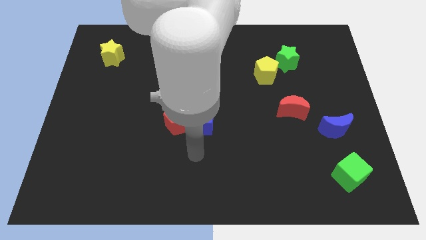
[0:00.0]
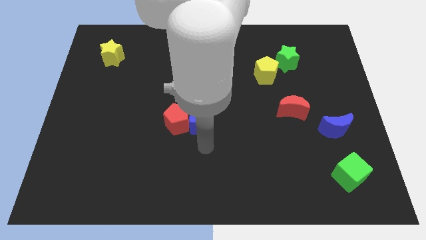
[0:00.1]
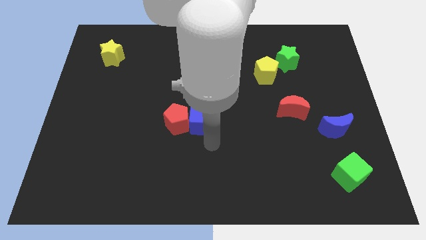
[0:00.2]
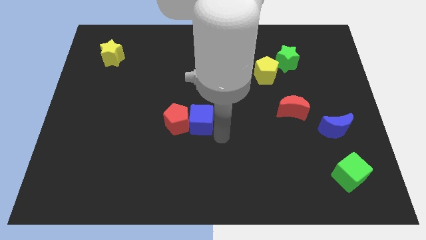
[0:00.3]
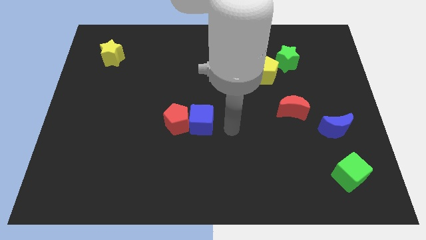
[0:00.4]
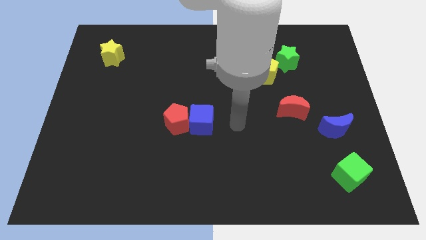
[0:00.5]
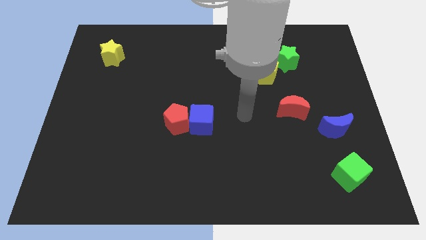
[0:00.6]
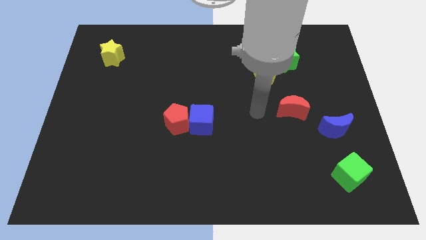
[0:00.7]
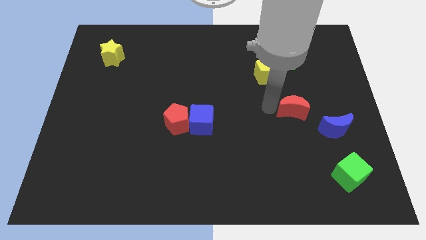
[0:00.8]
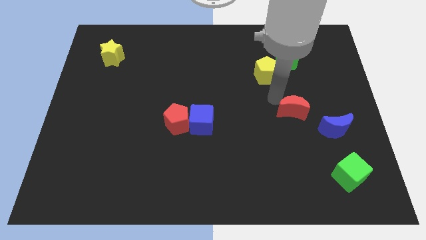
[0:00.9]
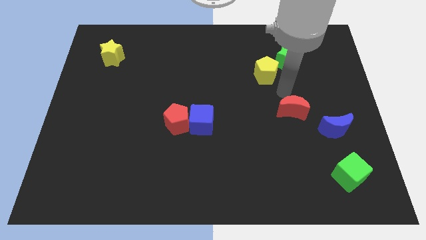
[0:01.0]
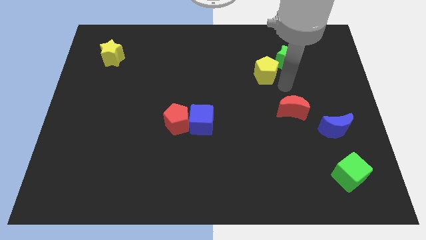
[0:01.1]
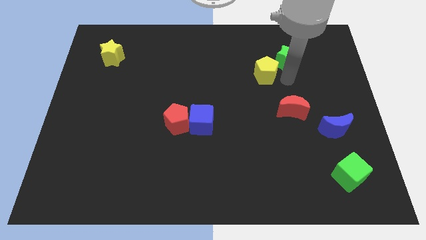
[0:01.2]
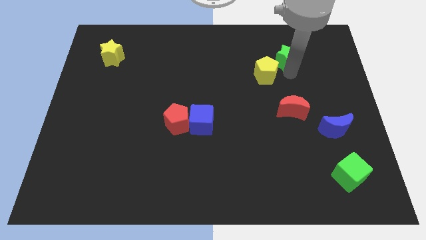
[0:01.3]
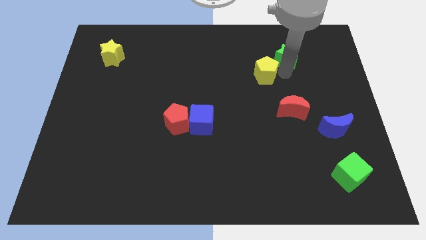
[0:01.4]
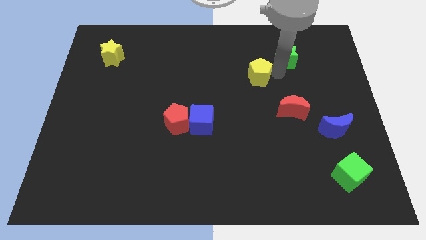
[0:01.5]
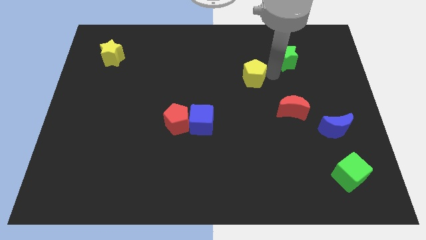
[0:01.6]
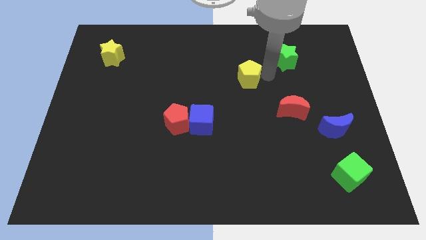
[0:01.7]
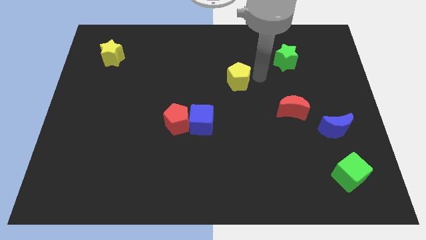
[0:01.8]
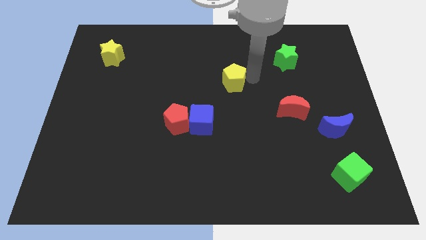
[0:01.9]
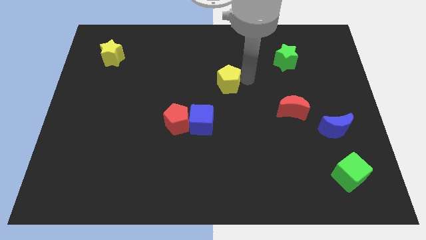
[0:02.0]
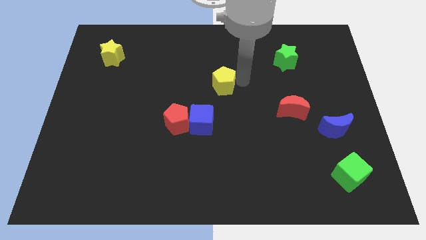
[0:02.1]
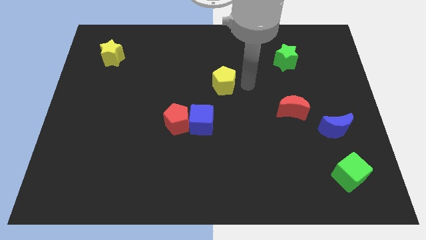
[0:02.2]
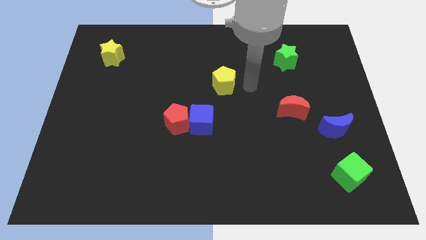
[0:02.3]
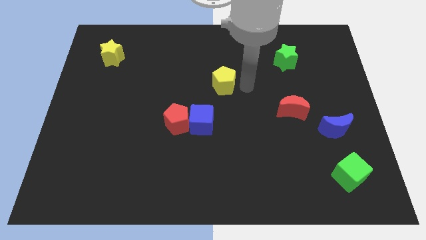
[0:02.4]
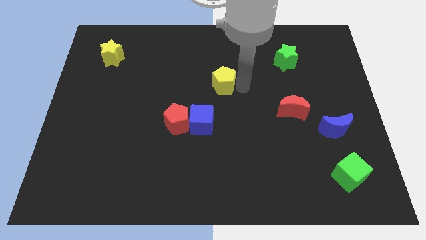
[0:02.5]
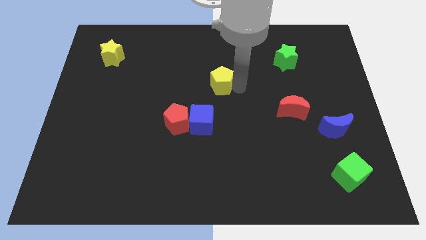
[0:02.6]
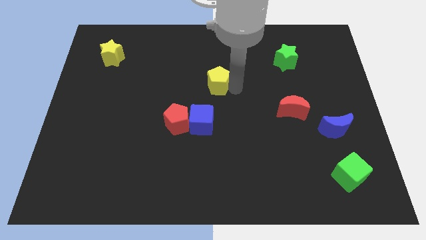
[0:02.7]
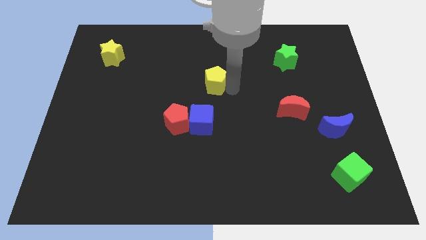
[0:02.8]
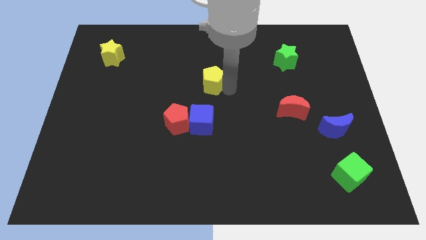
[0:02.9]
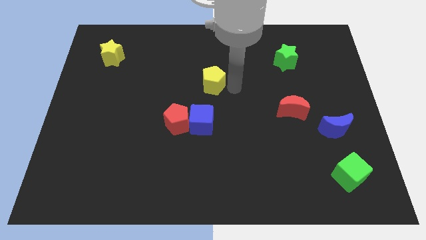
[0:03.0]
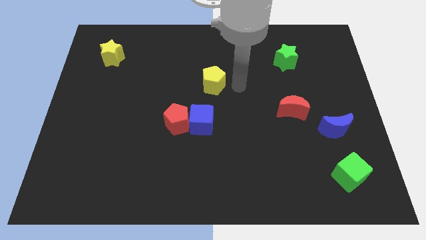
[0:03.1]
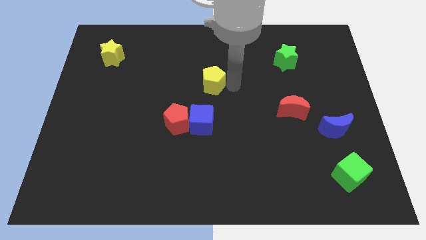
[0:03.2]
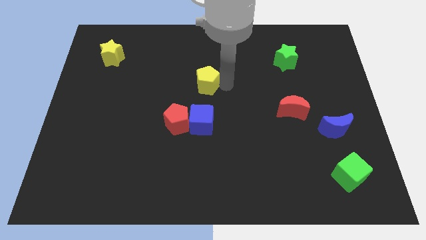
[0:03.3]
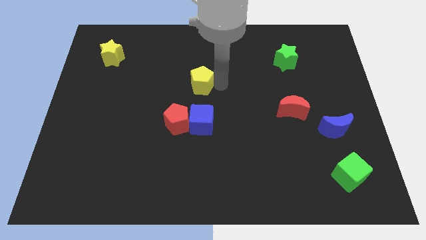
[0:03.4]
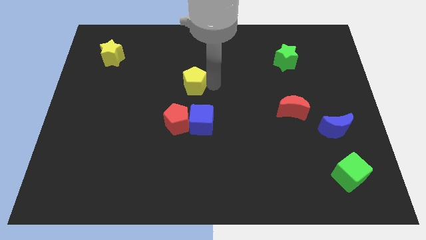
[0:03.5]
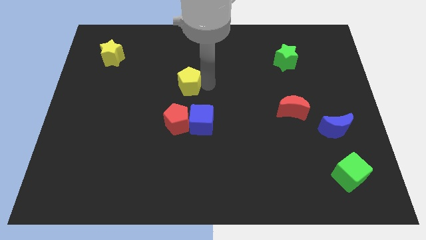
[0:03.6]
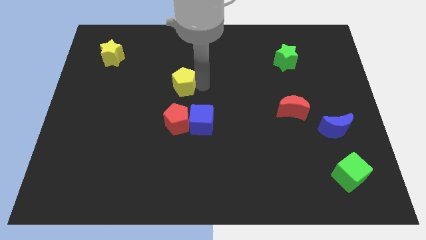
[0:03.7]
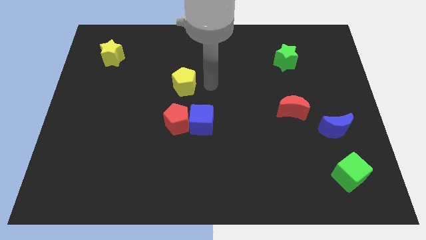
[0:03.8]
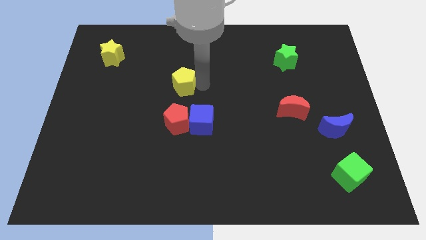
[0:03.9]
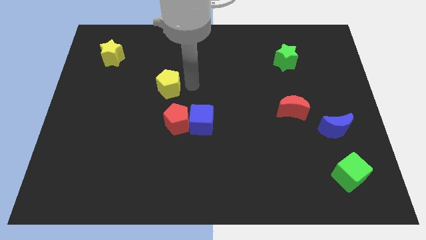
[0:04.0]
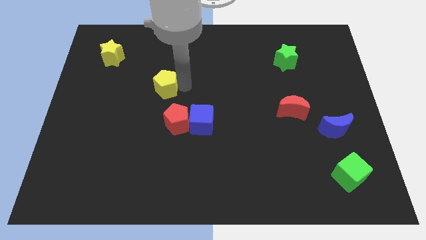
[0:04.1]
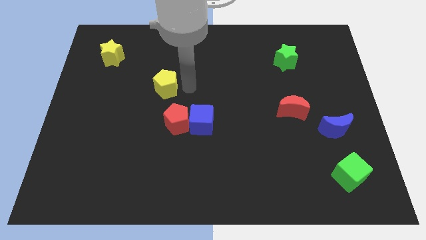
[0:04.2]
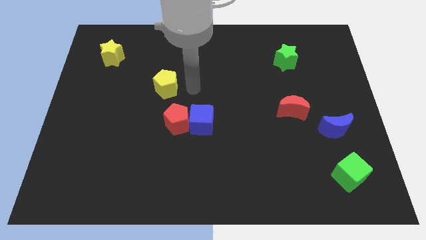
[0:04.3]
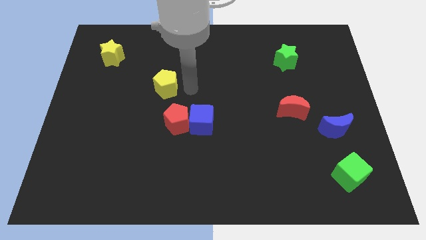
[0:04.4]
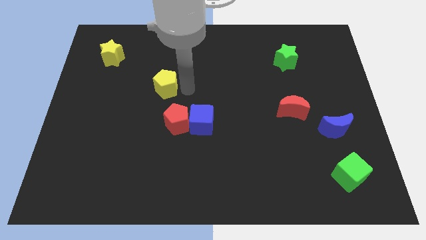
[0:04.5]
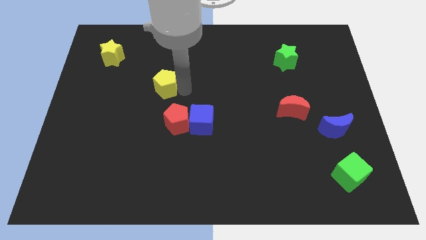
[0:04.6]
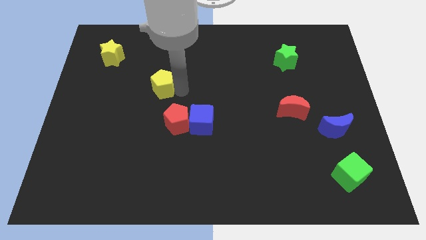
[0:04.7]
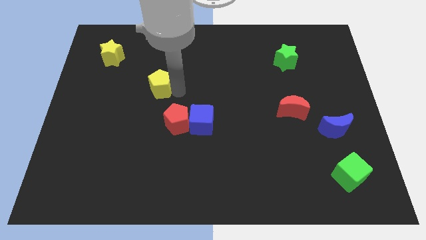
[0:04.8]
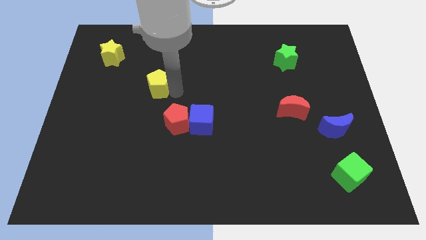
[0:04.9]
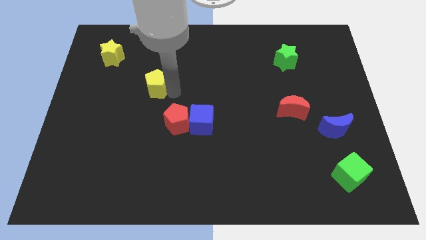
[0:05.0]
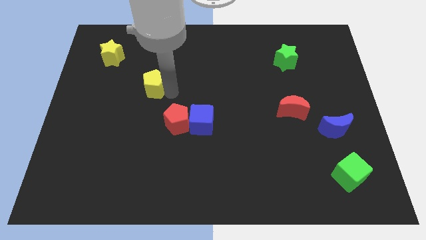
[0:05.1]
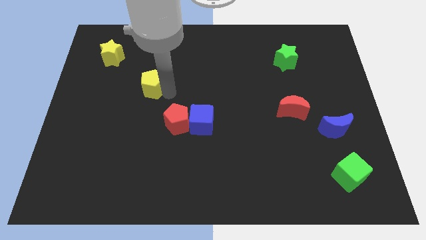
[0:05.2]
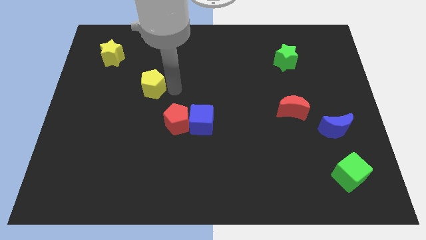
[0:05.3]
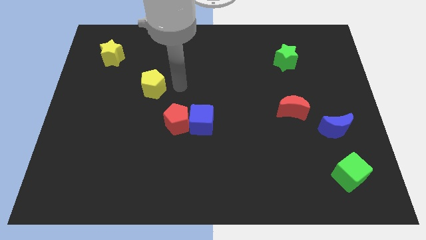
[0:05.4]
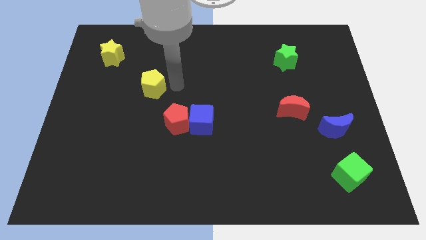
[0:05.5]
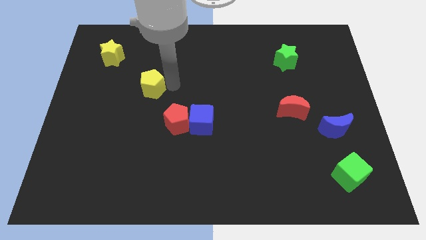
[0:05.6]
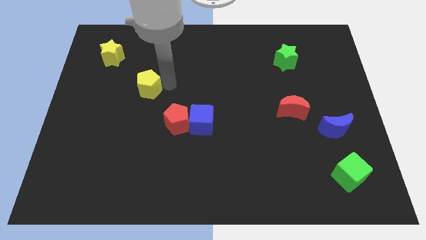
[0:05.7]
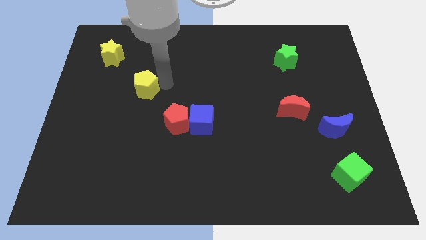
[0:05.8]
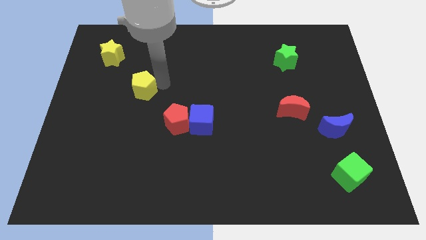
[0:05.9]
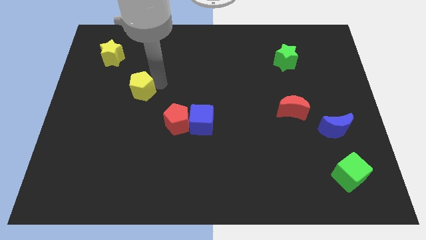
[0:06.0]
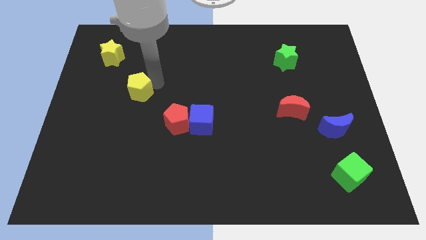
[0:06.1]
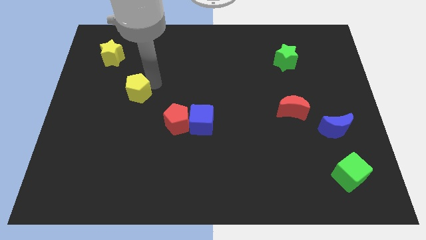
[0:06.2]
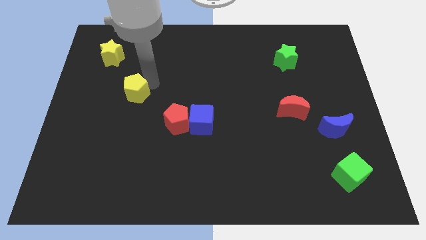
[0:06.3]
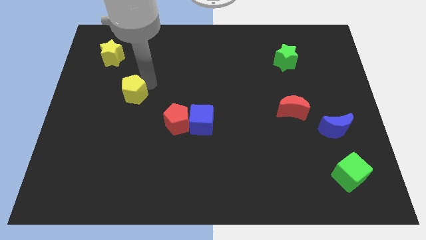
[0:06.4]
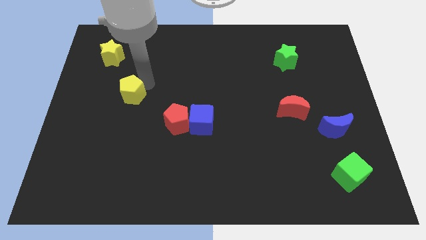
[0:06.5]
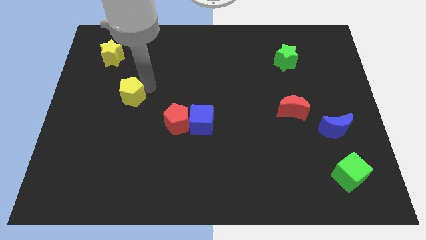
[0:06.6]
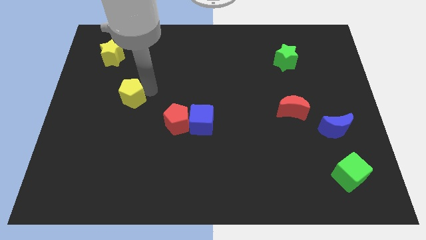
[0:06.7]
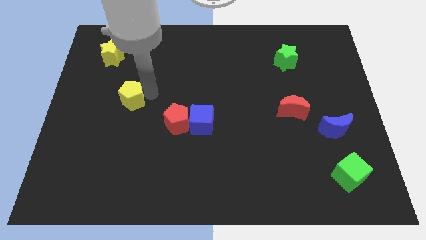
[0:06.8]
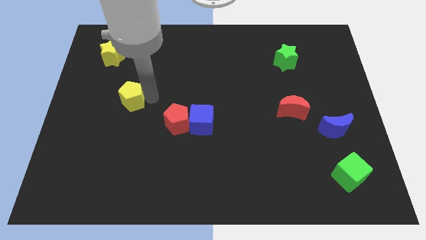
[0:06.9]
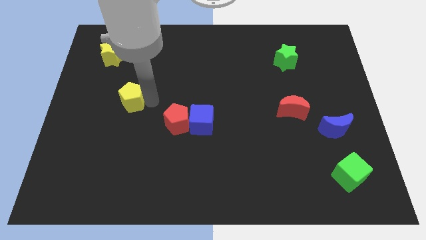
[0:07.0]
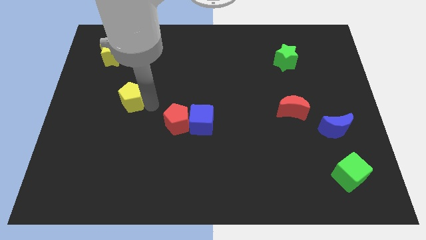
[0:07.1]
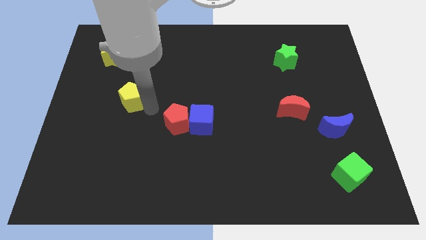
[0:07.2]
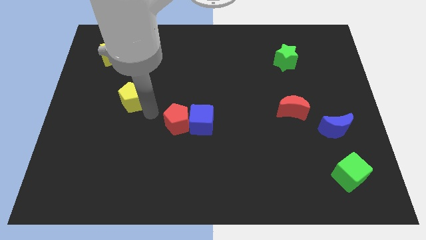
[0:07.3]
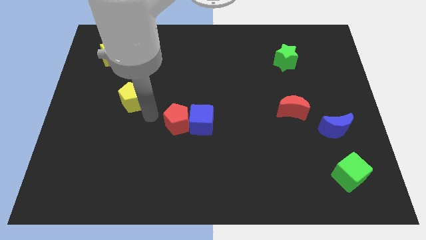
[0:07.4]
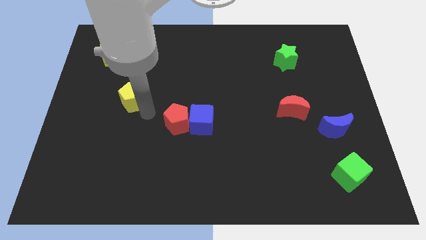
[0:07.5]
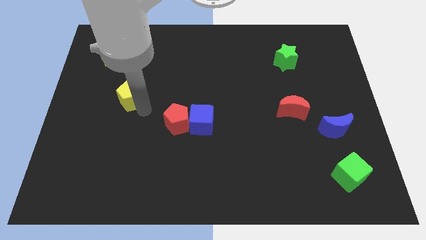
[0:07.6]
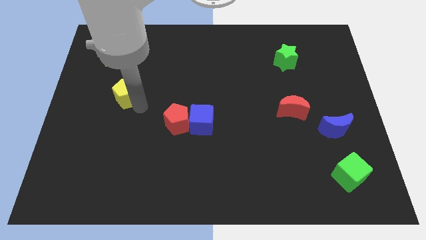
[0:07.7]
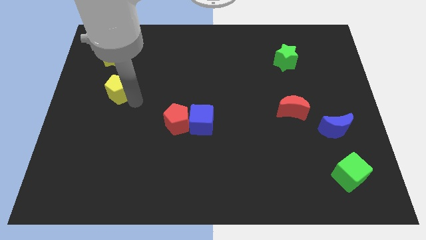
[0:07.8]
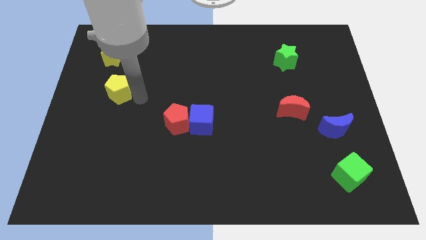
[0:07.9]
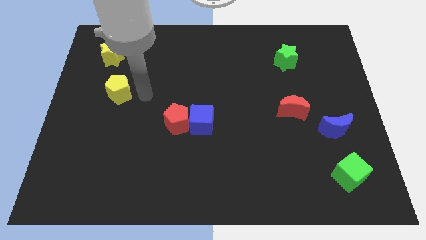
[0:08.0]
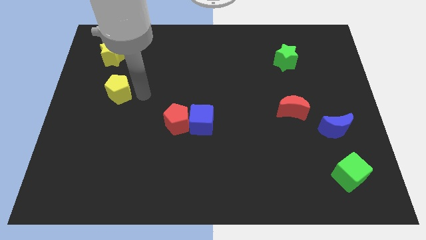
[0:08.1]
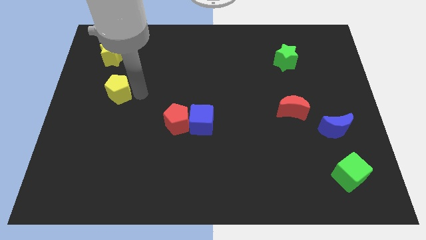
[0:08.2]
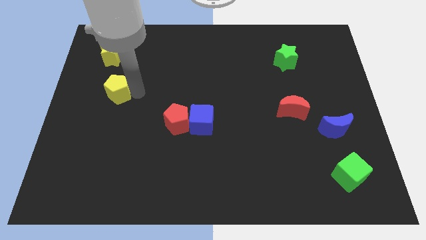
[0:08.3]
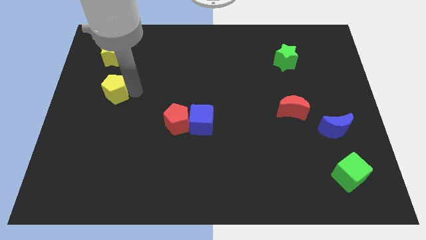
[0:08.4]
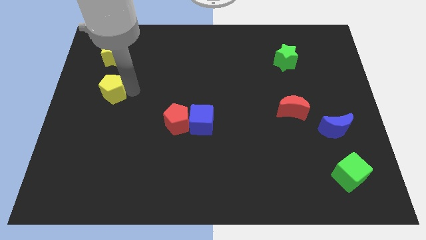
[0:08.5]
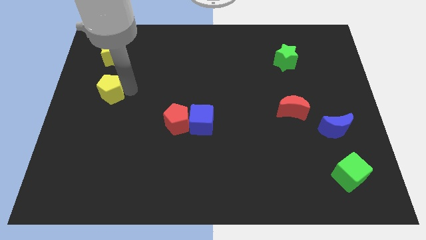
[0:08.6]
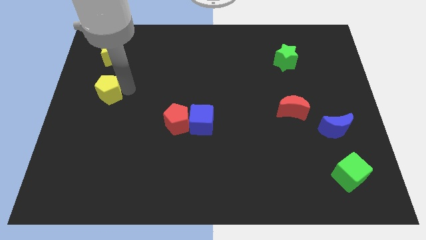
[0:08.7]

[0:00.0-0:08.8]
push the yellow pentagon to the left side
